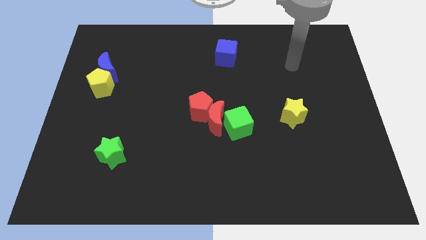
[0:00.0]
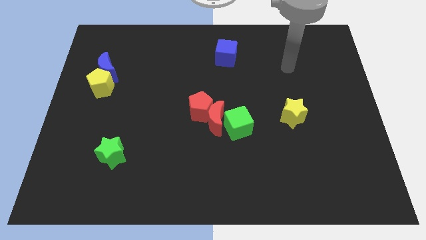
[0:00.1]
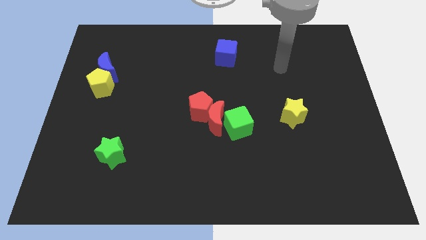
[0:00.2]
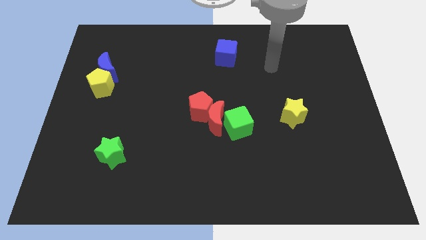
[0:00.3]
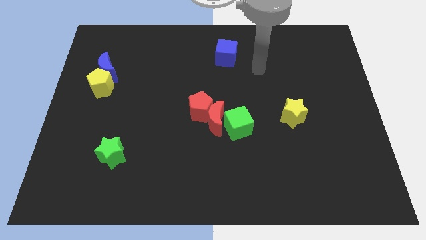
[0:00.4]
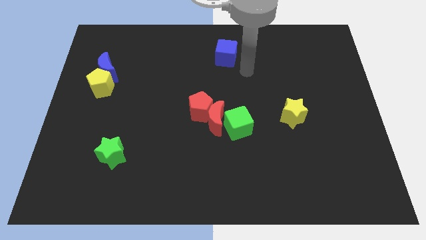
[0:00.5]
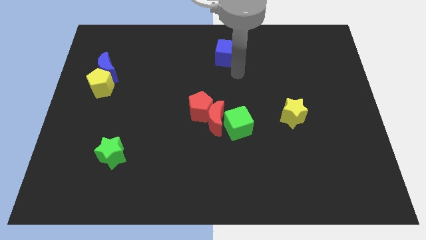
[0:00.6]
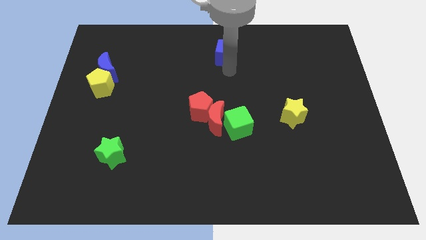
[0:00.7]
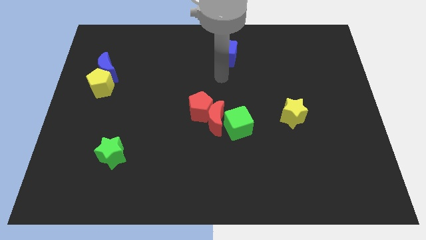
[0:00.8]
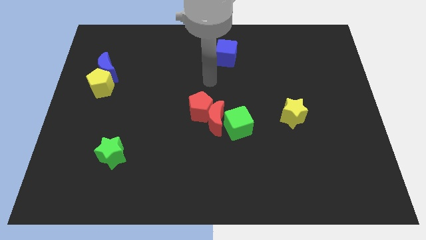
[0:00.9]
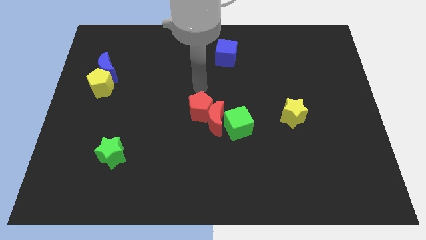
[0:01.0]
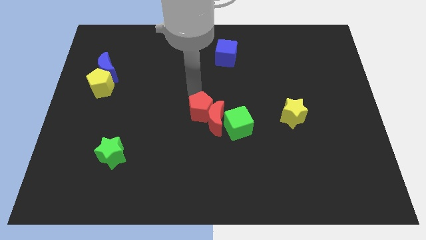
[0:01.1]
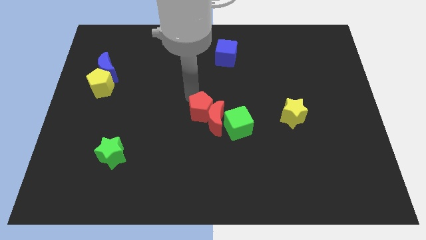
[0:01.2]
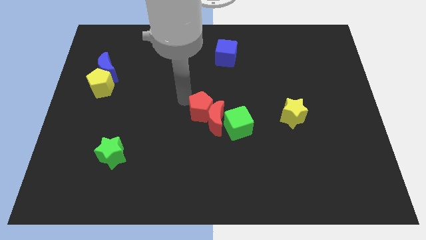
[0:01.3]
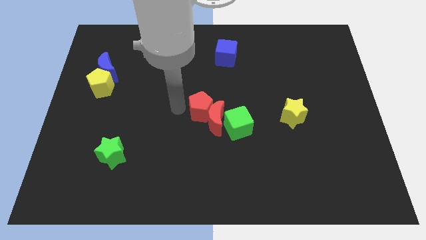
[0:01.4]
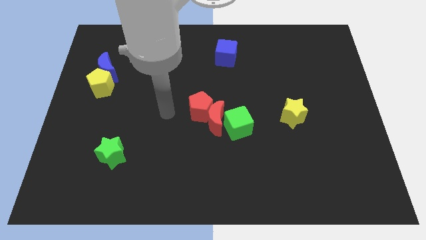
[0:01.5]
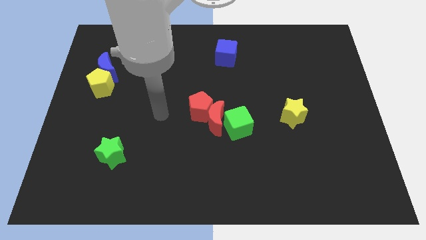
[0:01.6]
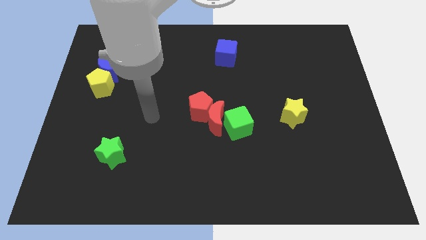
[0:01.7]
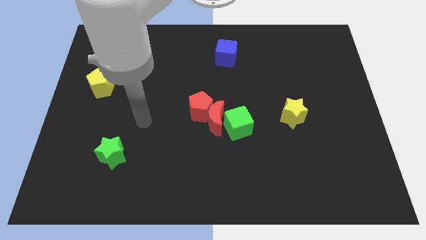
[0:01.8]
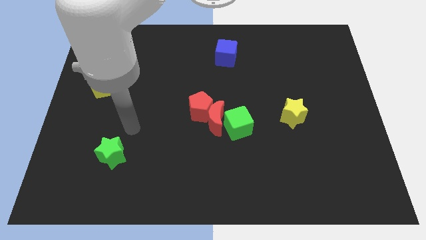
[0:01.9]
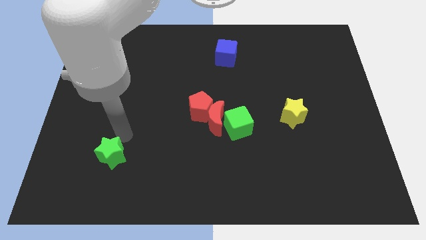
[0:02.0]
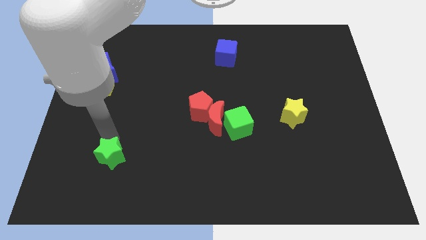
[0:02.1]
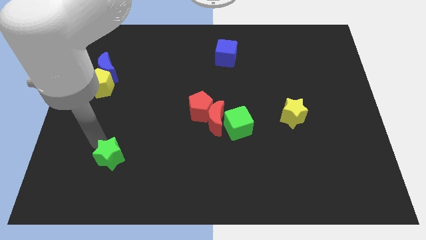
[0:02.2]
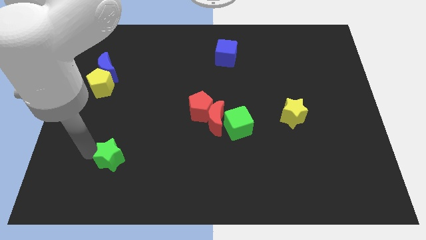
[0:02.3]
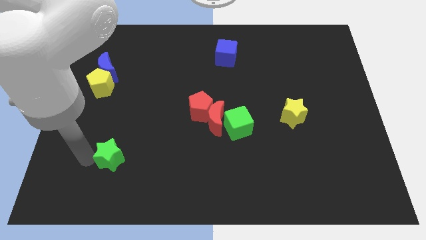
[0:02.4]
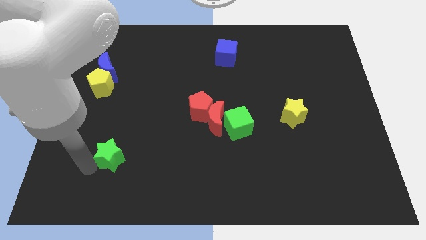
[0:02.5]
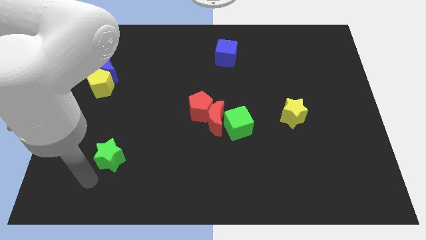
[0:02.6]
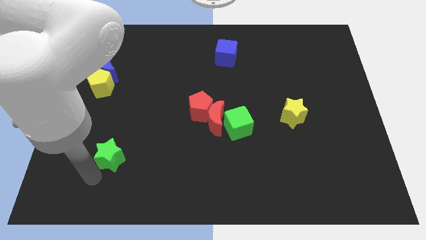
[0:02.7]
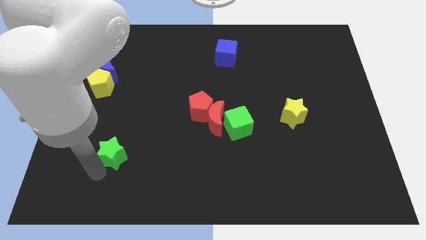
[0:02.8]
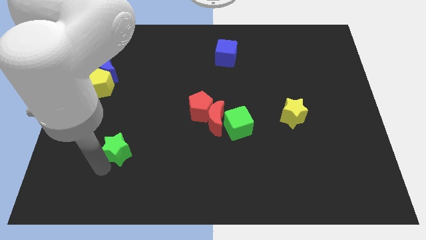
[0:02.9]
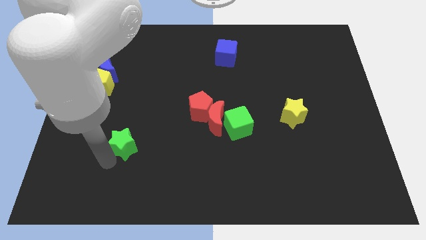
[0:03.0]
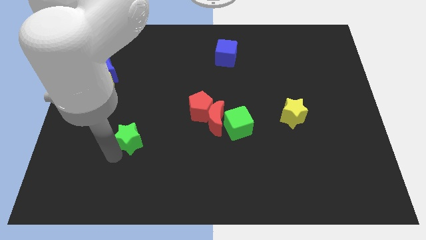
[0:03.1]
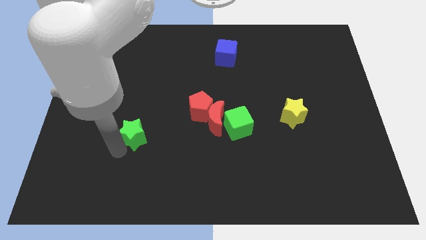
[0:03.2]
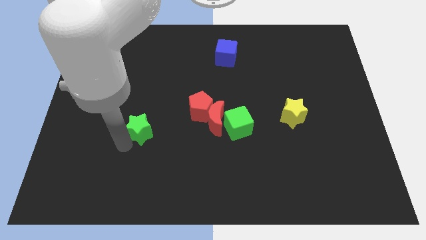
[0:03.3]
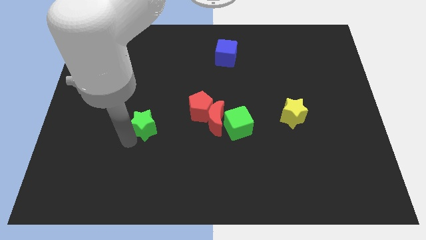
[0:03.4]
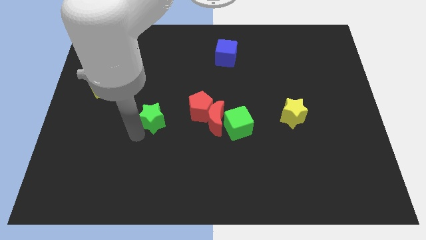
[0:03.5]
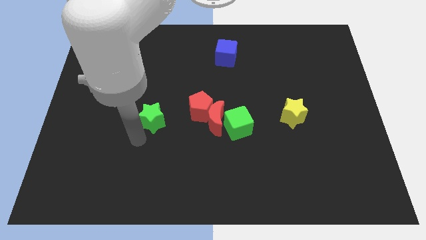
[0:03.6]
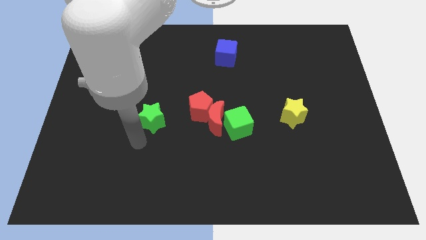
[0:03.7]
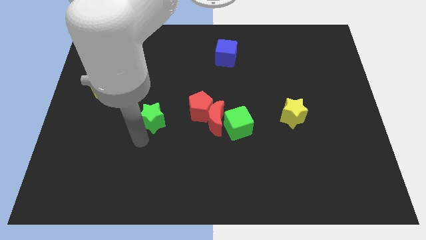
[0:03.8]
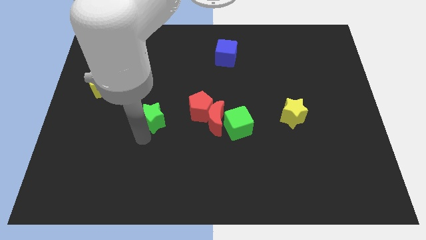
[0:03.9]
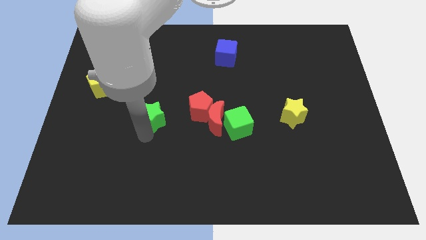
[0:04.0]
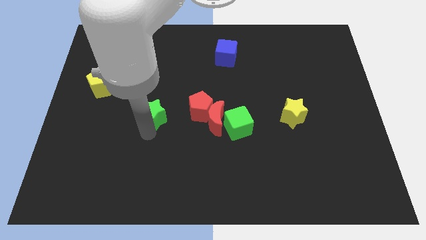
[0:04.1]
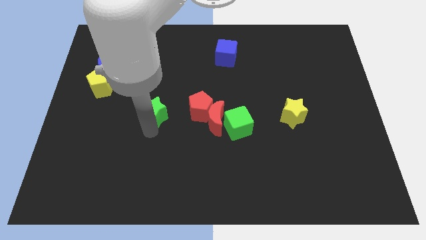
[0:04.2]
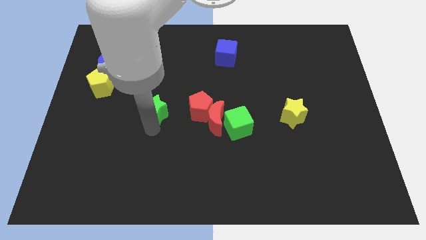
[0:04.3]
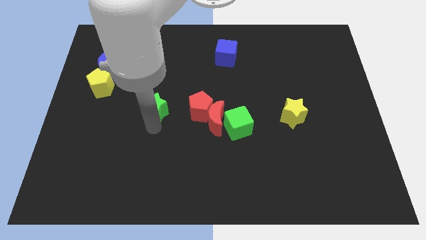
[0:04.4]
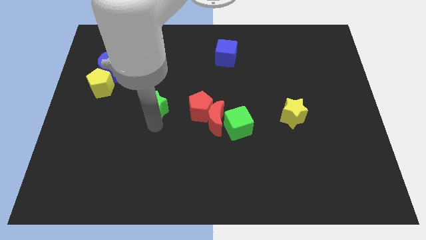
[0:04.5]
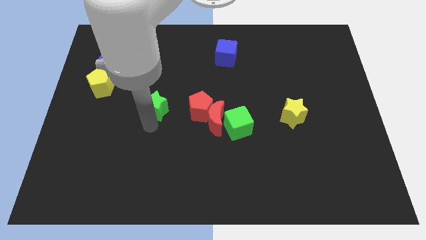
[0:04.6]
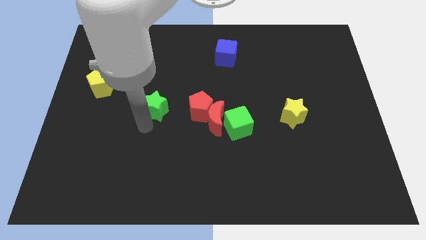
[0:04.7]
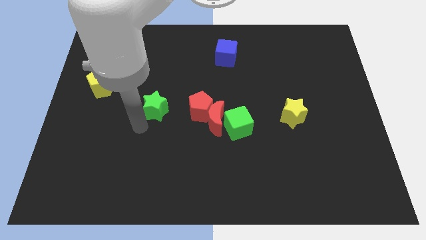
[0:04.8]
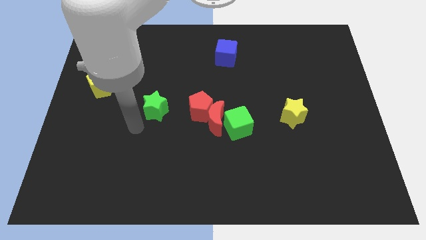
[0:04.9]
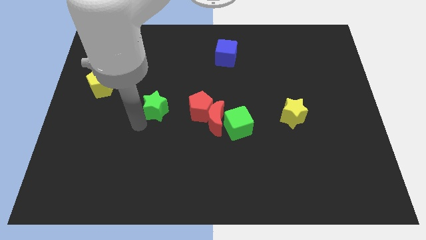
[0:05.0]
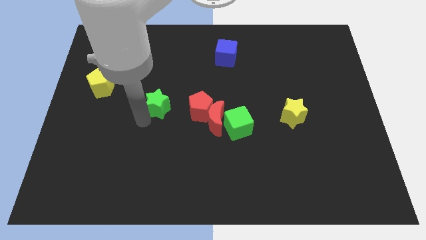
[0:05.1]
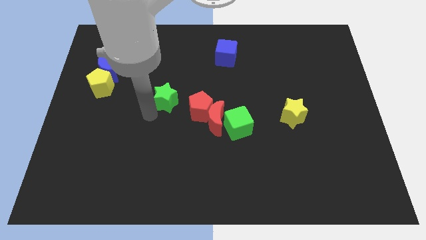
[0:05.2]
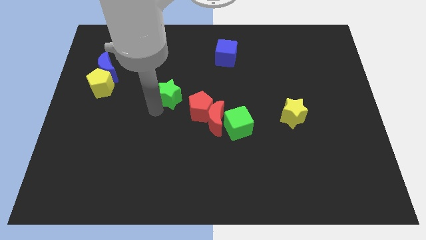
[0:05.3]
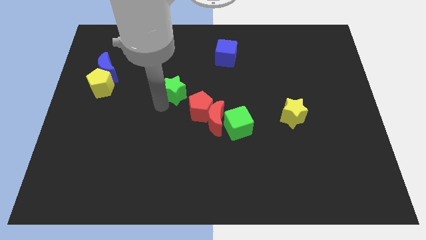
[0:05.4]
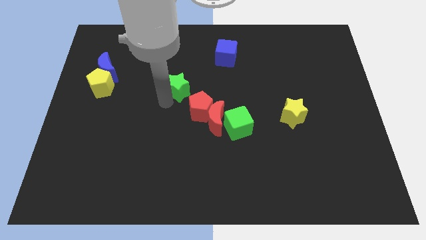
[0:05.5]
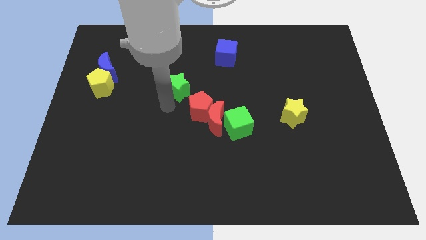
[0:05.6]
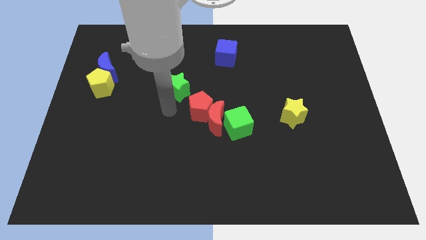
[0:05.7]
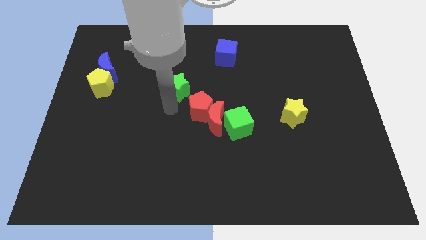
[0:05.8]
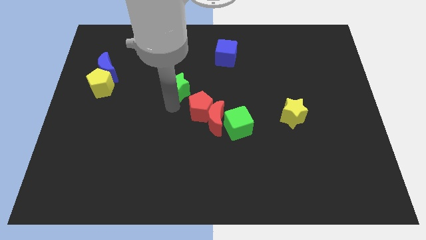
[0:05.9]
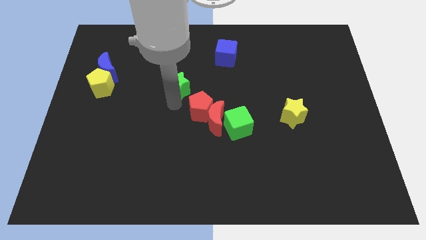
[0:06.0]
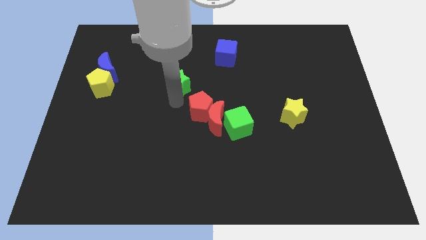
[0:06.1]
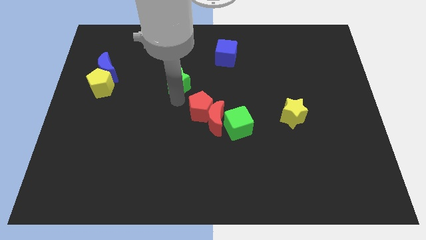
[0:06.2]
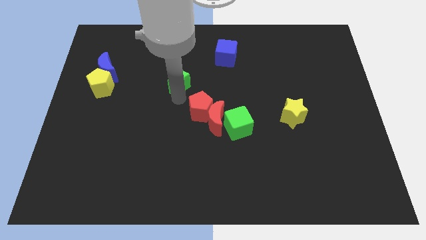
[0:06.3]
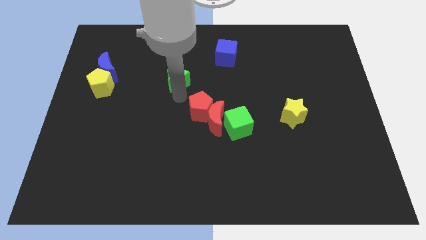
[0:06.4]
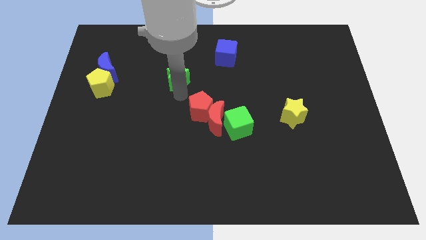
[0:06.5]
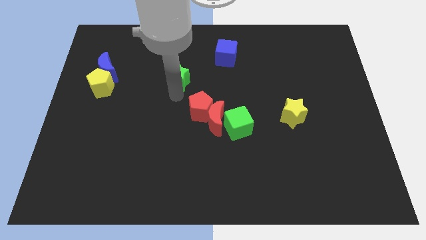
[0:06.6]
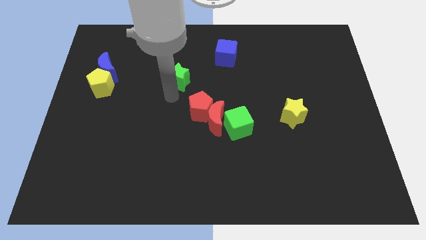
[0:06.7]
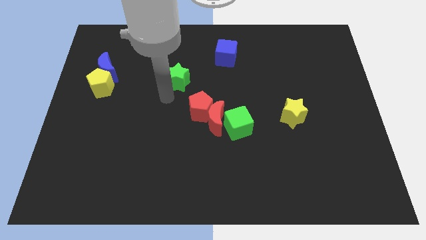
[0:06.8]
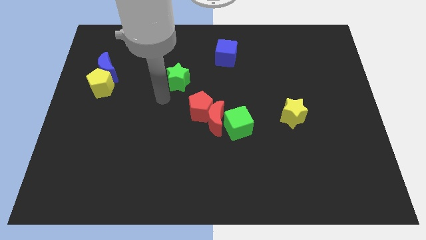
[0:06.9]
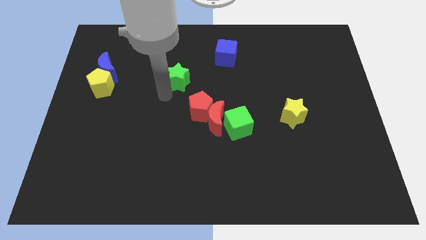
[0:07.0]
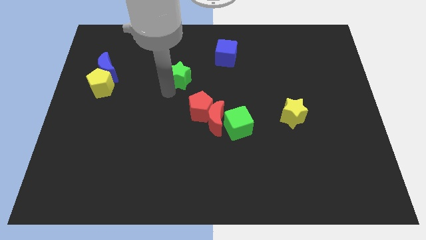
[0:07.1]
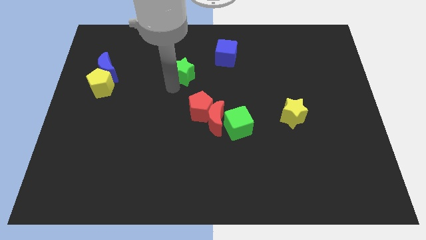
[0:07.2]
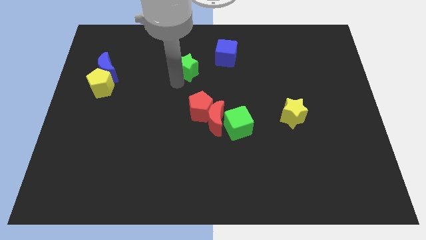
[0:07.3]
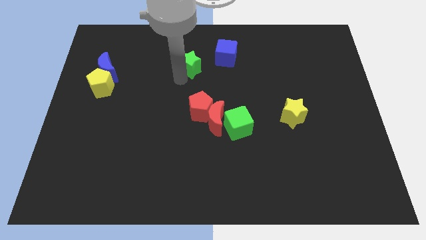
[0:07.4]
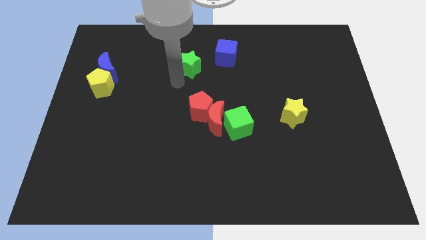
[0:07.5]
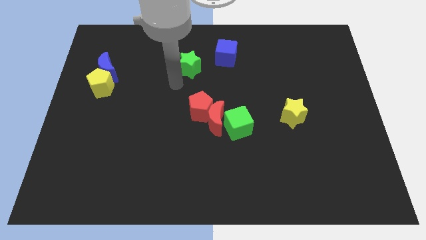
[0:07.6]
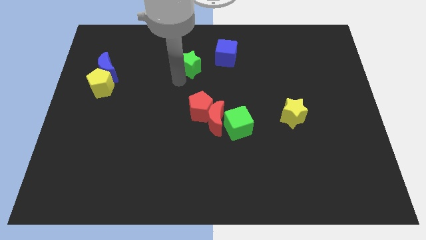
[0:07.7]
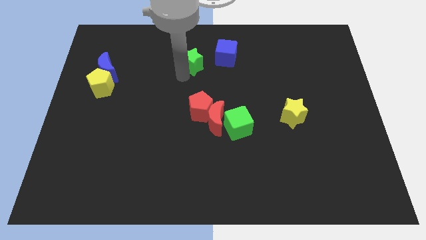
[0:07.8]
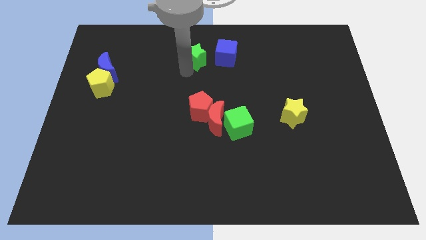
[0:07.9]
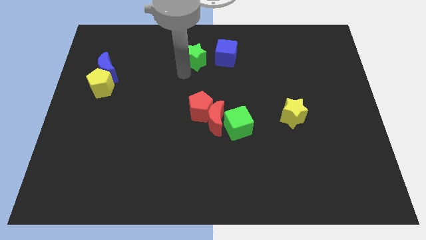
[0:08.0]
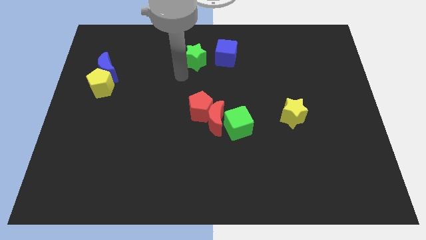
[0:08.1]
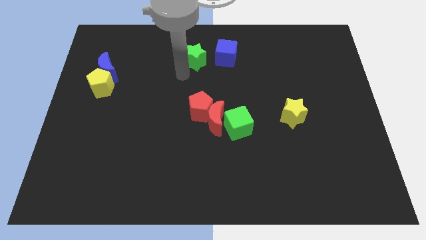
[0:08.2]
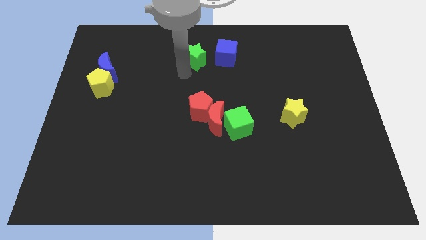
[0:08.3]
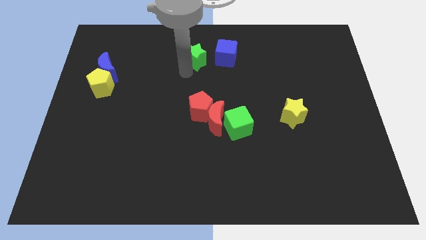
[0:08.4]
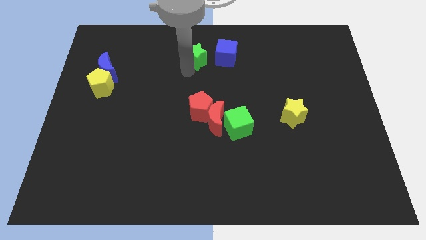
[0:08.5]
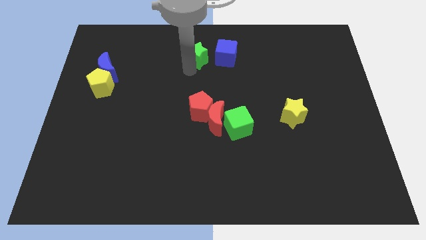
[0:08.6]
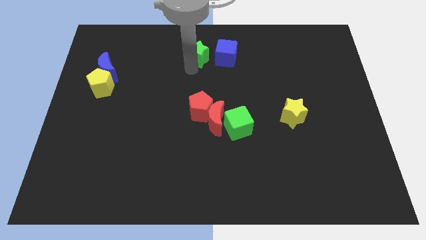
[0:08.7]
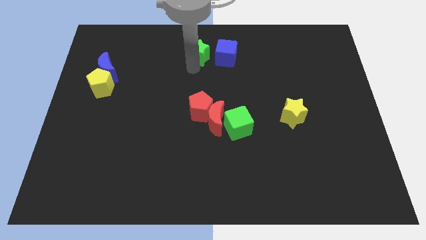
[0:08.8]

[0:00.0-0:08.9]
slide the green star to the top side
